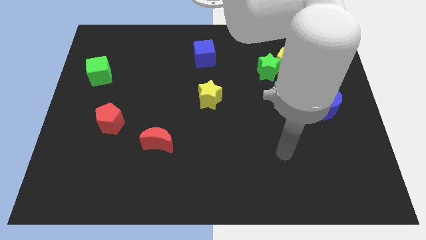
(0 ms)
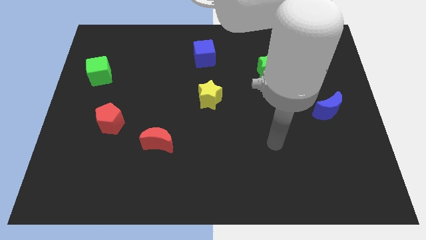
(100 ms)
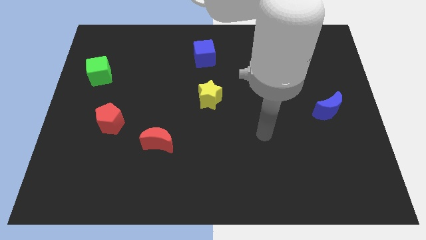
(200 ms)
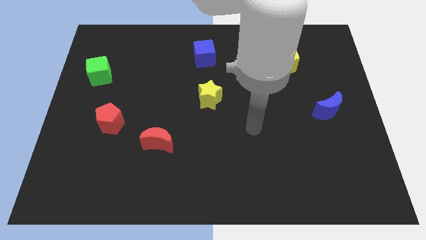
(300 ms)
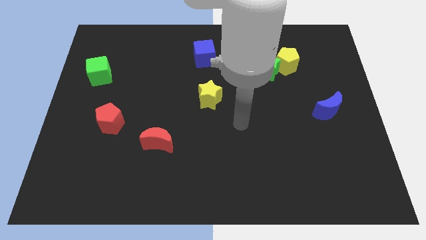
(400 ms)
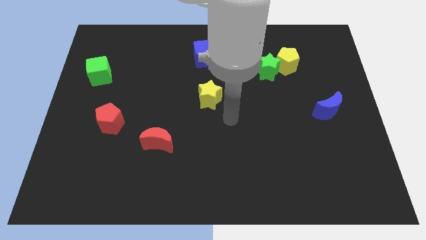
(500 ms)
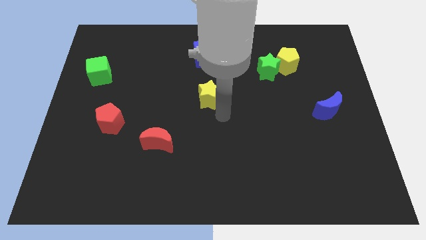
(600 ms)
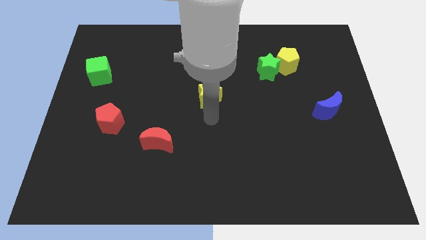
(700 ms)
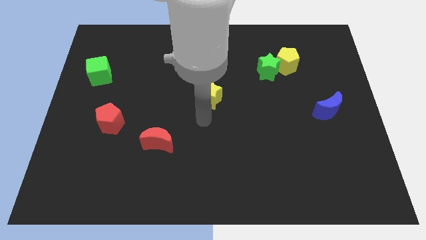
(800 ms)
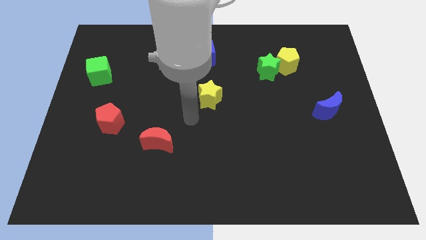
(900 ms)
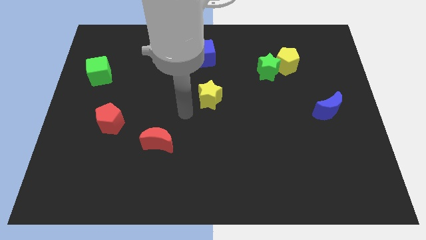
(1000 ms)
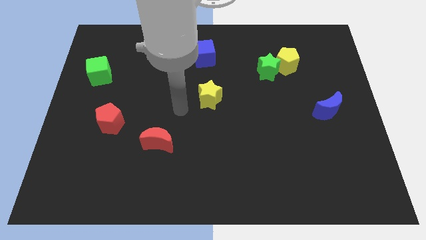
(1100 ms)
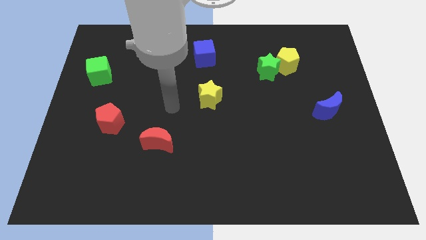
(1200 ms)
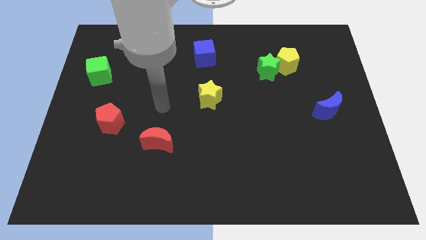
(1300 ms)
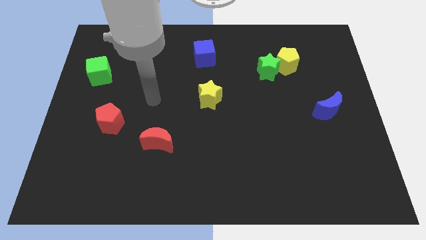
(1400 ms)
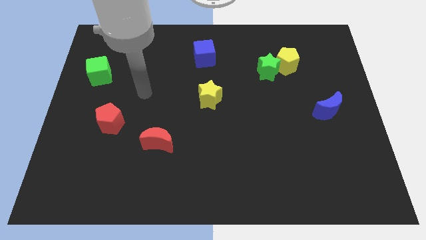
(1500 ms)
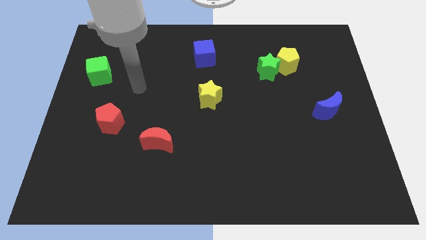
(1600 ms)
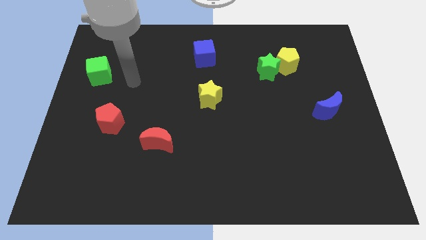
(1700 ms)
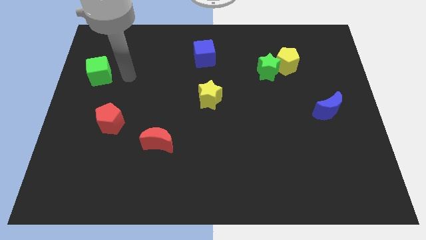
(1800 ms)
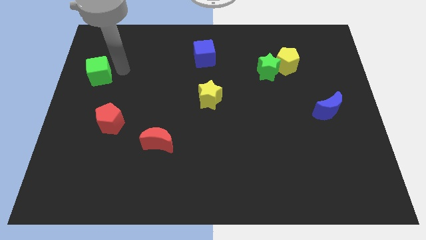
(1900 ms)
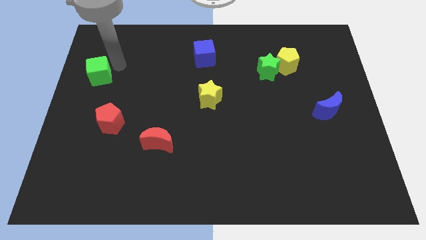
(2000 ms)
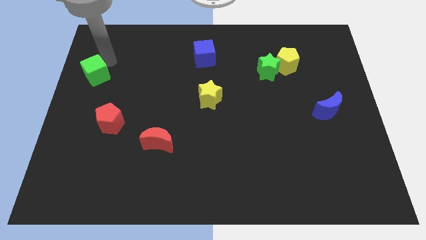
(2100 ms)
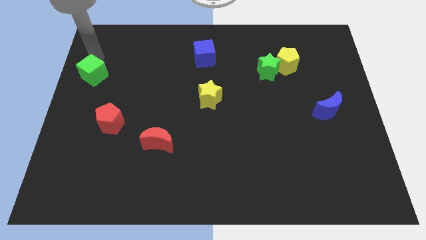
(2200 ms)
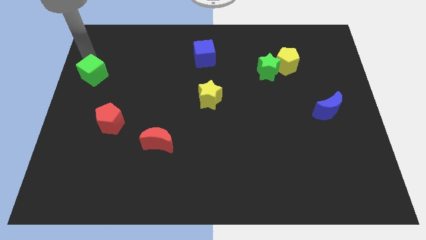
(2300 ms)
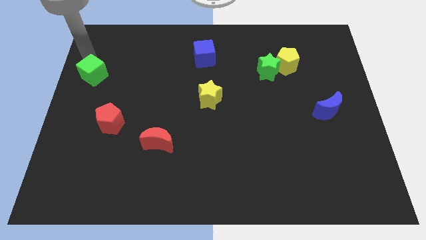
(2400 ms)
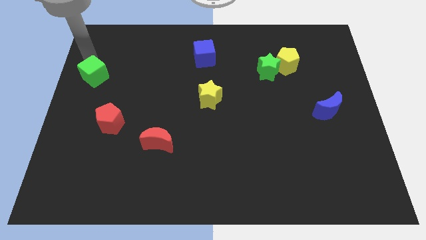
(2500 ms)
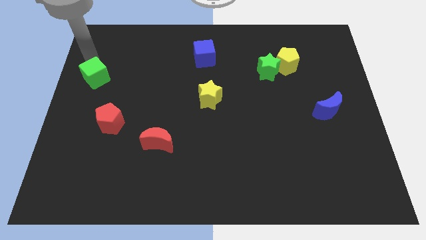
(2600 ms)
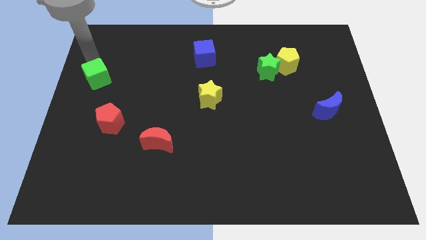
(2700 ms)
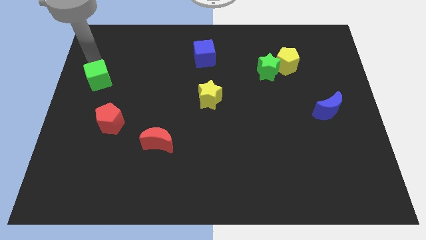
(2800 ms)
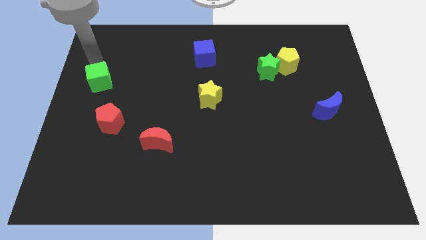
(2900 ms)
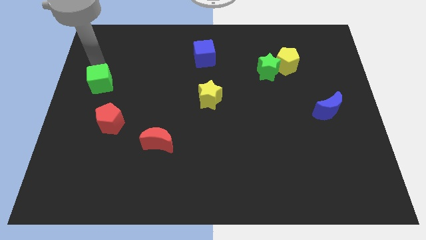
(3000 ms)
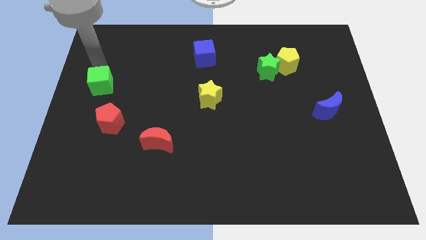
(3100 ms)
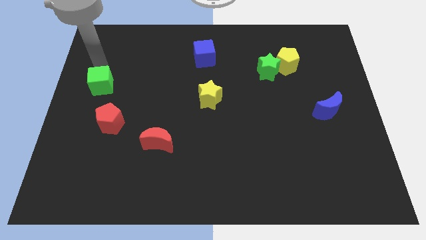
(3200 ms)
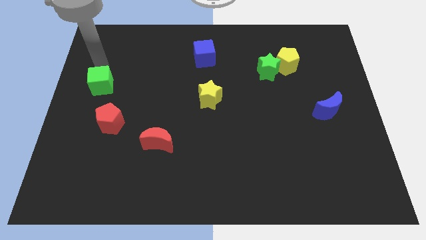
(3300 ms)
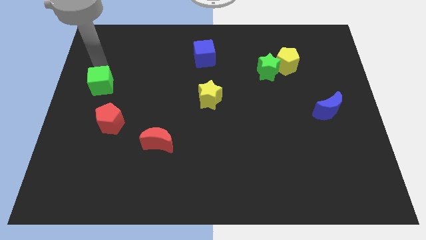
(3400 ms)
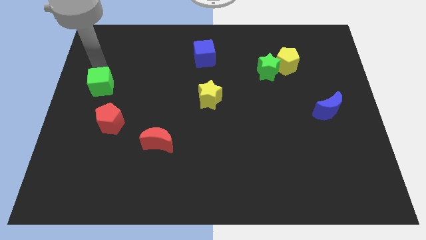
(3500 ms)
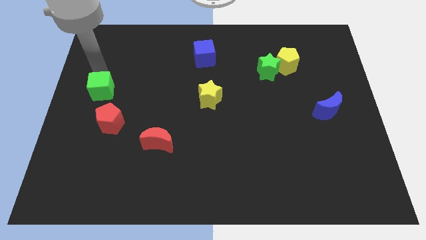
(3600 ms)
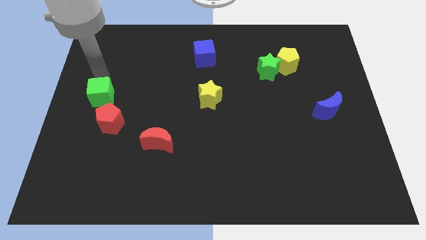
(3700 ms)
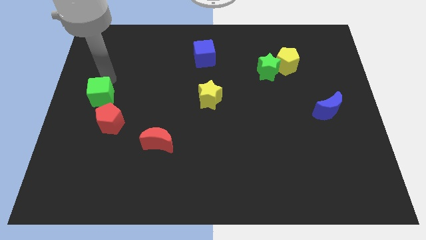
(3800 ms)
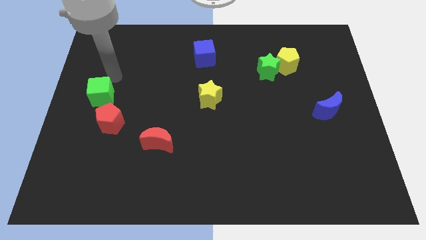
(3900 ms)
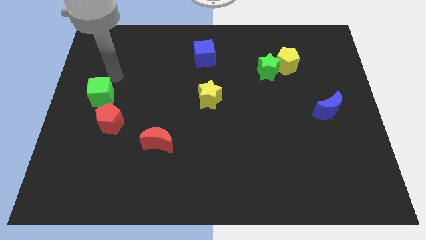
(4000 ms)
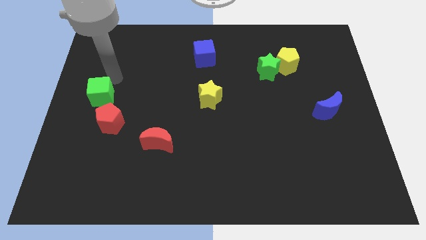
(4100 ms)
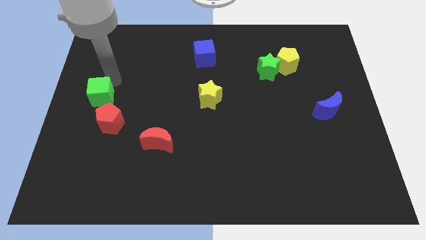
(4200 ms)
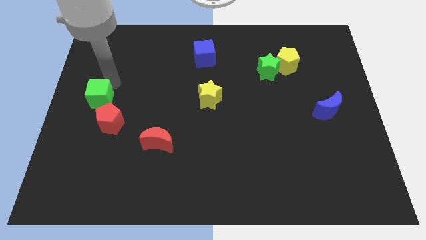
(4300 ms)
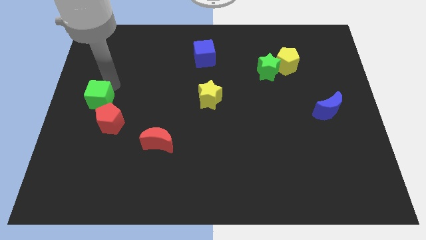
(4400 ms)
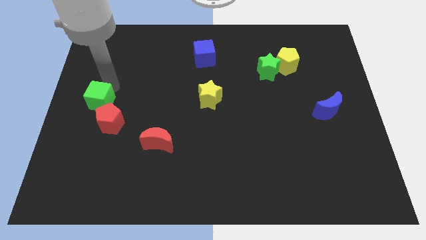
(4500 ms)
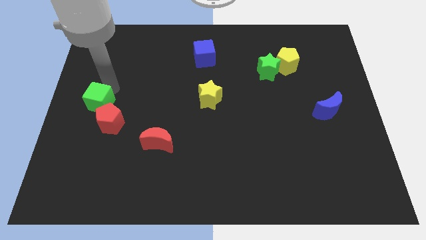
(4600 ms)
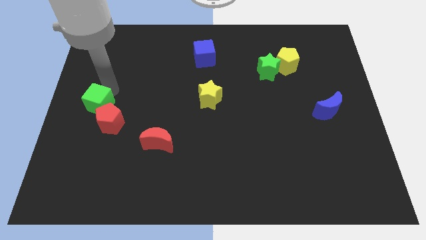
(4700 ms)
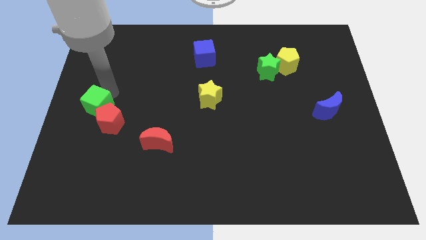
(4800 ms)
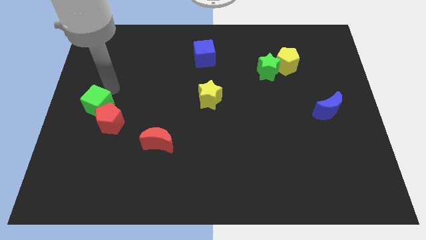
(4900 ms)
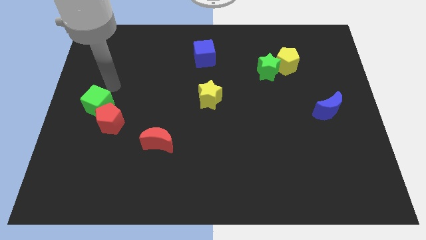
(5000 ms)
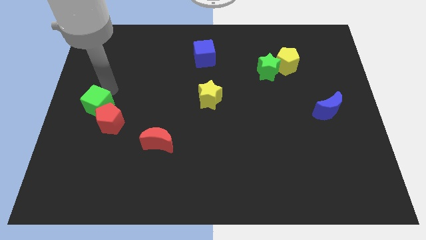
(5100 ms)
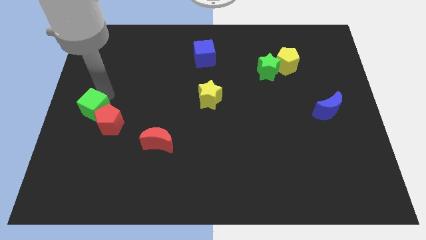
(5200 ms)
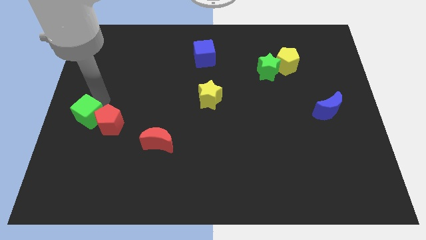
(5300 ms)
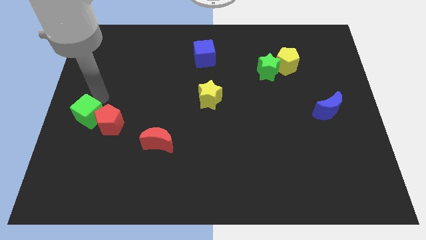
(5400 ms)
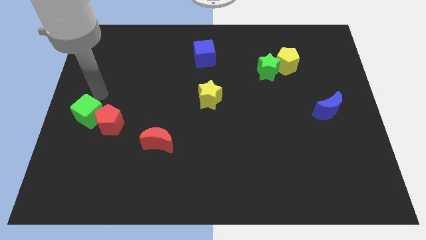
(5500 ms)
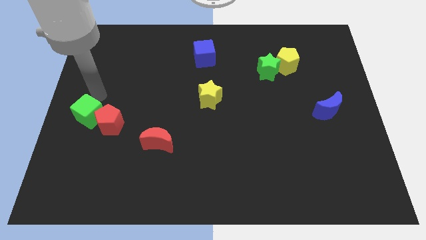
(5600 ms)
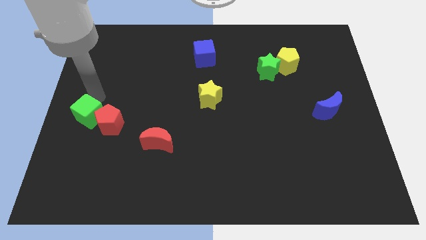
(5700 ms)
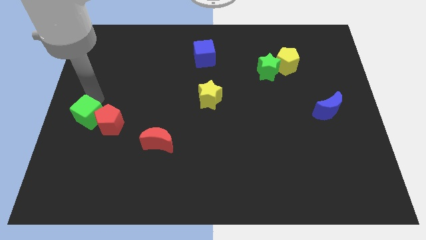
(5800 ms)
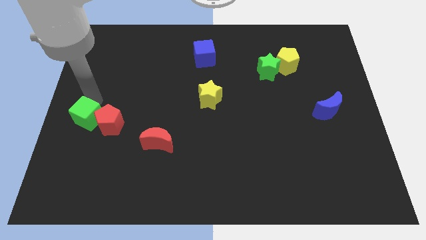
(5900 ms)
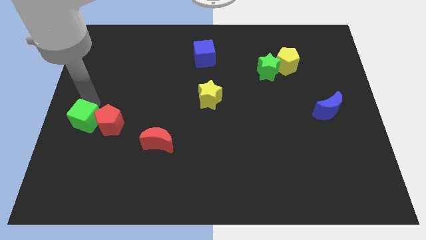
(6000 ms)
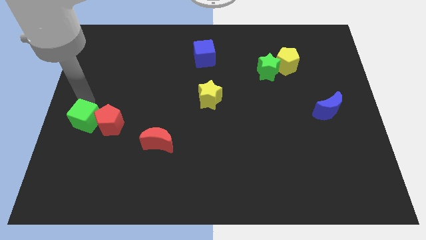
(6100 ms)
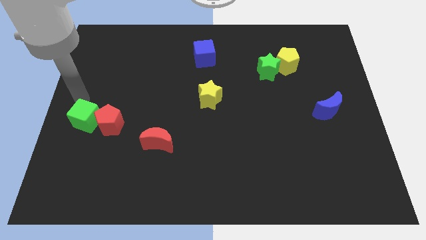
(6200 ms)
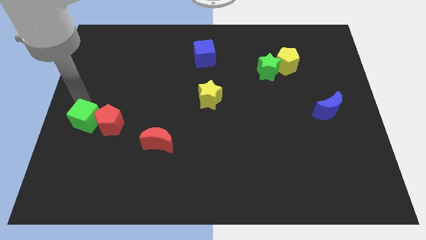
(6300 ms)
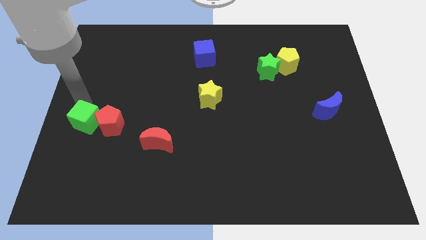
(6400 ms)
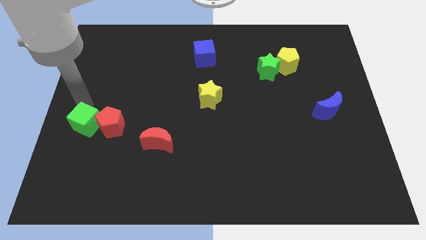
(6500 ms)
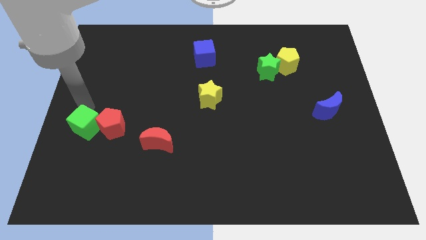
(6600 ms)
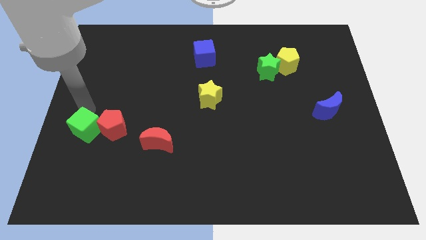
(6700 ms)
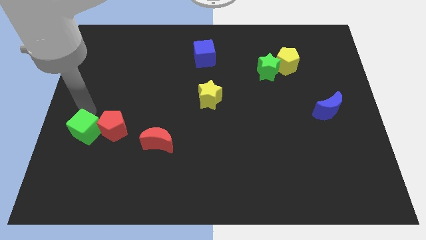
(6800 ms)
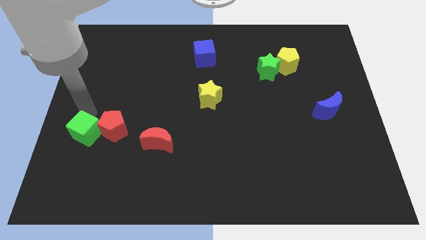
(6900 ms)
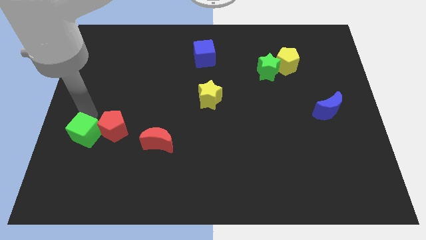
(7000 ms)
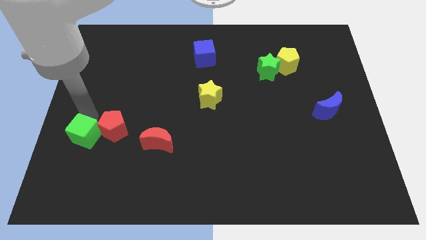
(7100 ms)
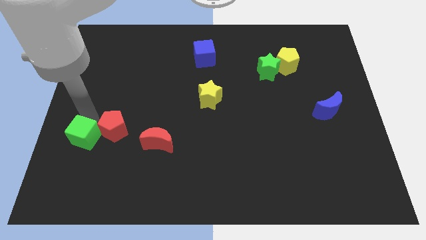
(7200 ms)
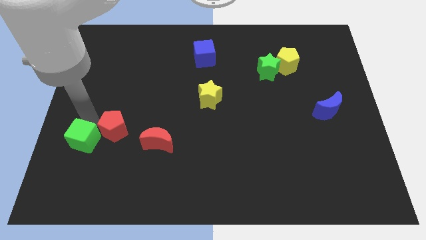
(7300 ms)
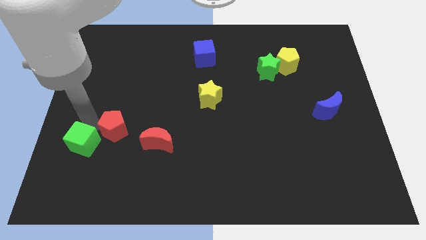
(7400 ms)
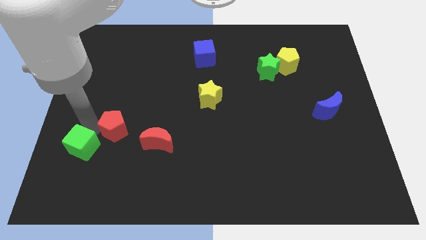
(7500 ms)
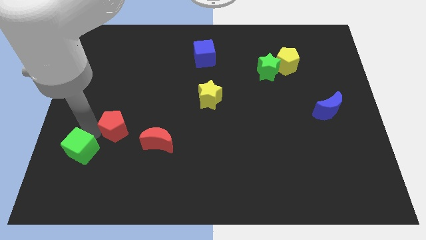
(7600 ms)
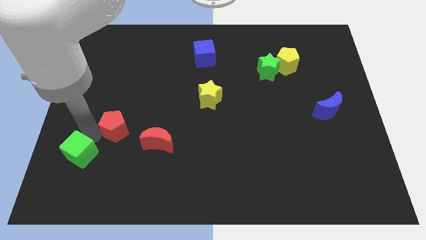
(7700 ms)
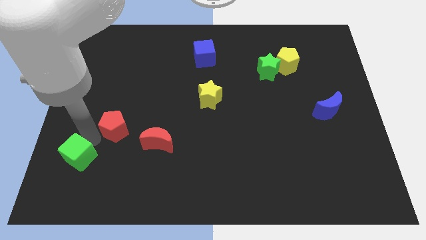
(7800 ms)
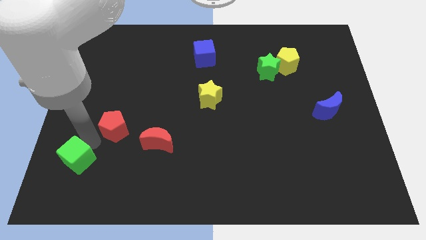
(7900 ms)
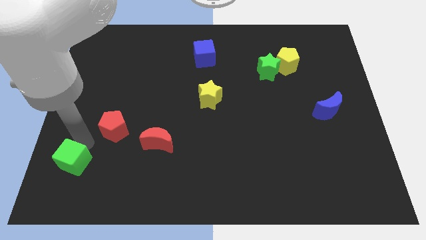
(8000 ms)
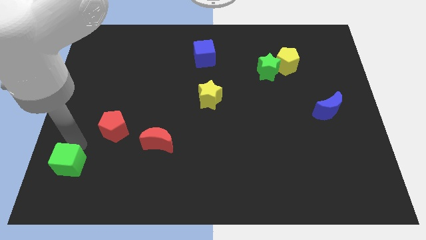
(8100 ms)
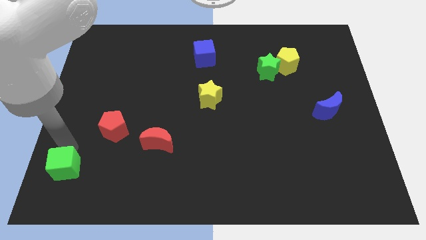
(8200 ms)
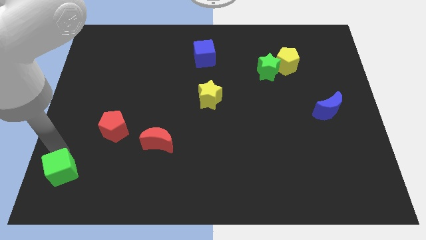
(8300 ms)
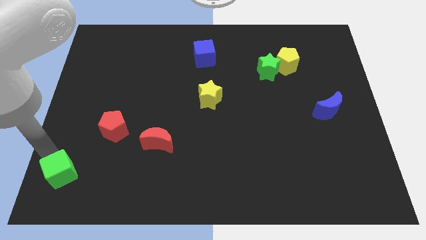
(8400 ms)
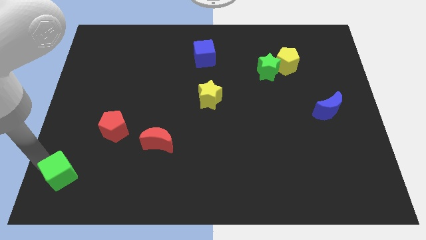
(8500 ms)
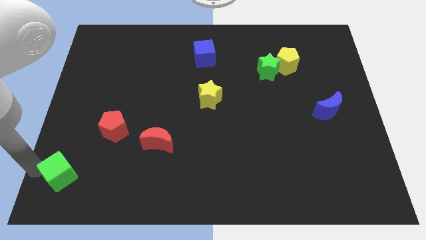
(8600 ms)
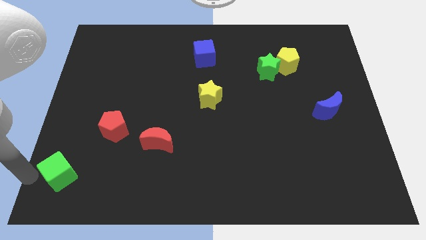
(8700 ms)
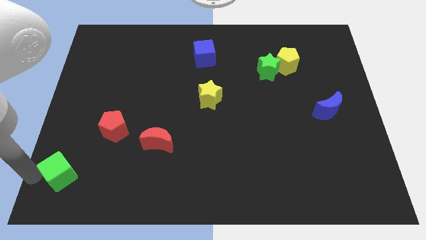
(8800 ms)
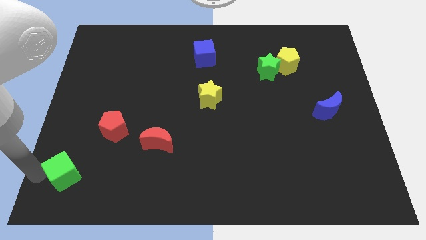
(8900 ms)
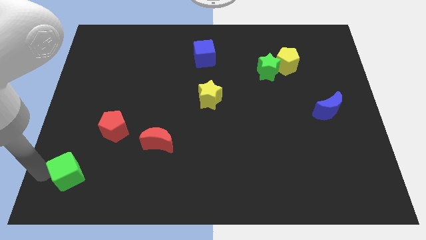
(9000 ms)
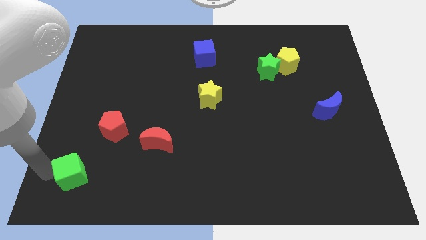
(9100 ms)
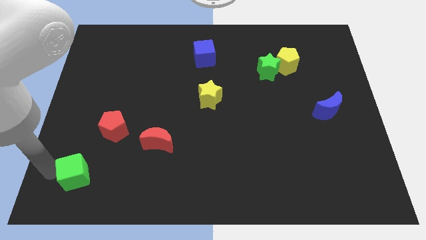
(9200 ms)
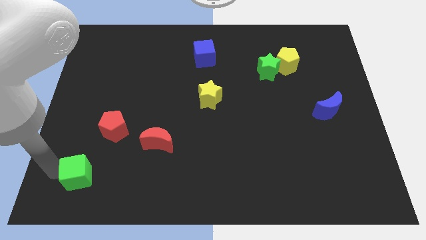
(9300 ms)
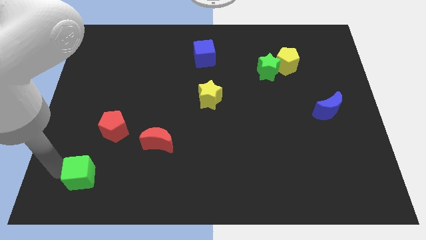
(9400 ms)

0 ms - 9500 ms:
move the green cube to the bottom of the red pentagon
